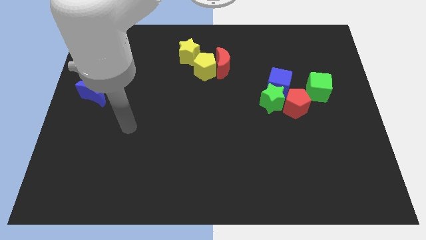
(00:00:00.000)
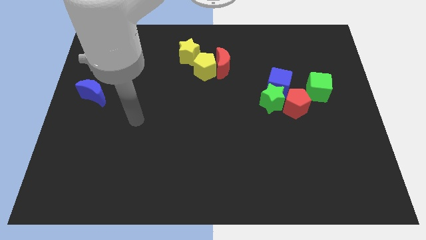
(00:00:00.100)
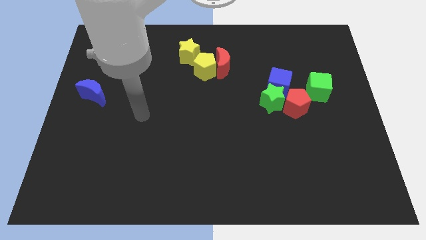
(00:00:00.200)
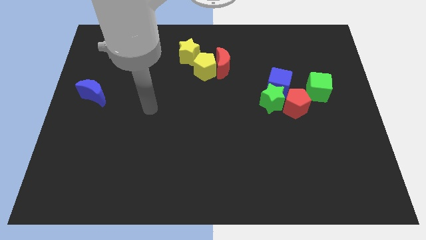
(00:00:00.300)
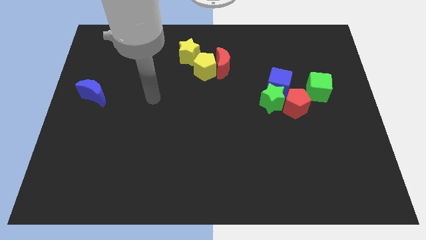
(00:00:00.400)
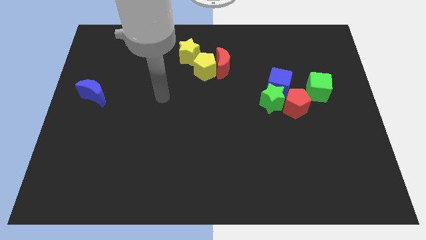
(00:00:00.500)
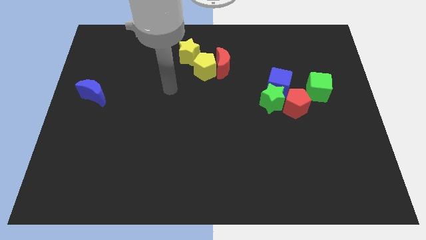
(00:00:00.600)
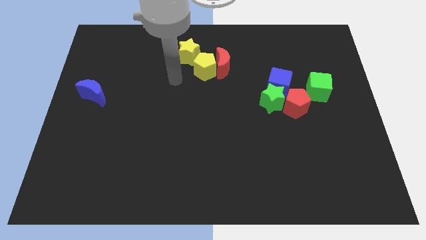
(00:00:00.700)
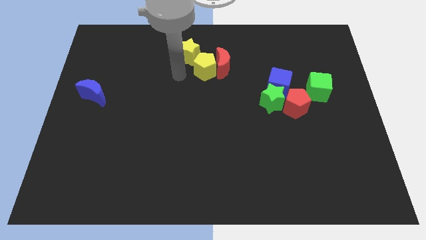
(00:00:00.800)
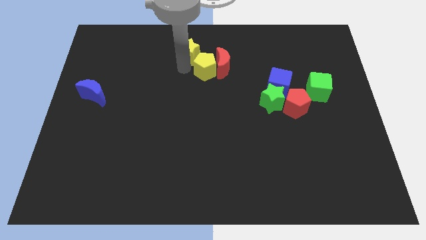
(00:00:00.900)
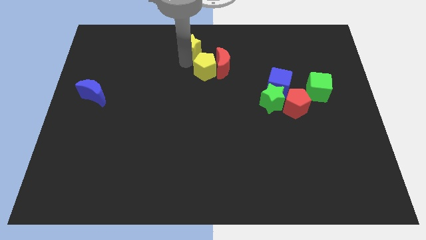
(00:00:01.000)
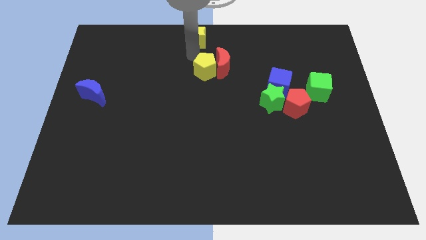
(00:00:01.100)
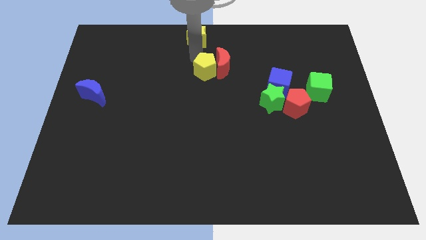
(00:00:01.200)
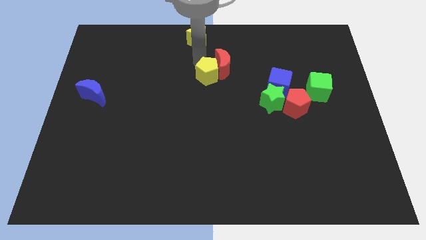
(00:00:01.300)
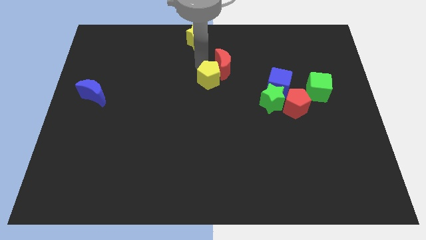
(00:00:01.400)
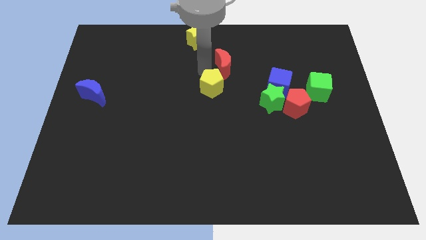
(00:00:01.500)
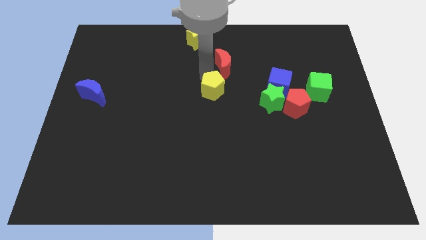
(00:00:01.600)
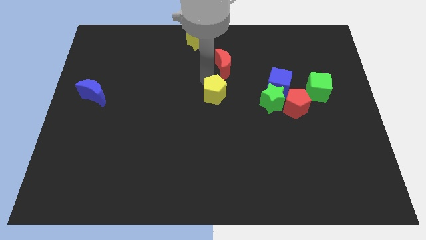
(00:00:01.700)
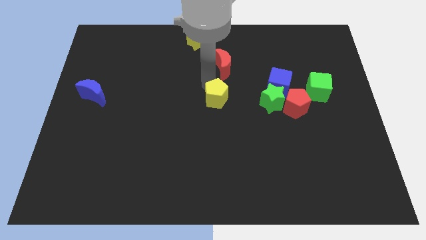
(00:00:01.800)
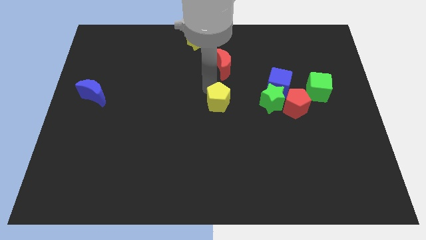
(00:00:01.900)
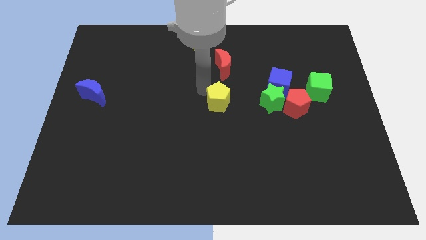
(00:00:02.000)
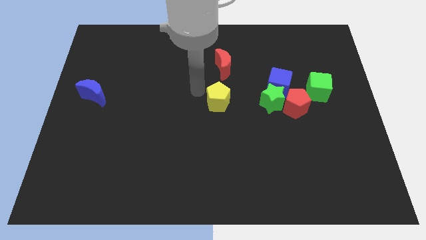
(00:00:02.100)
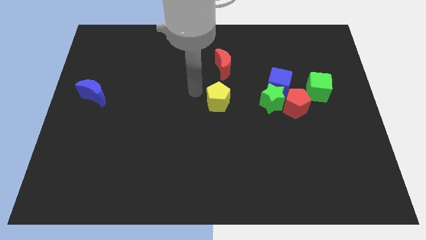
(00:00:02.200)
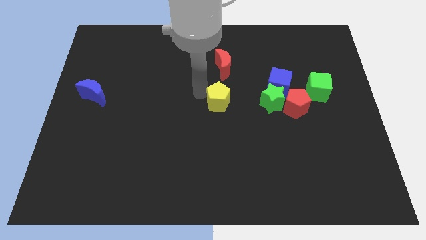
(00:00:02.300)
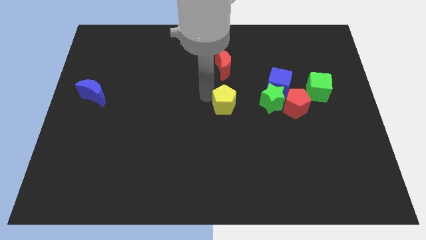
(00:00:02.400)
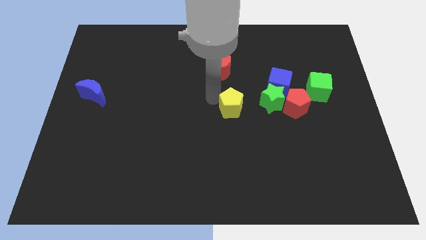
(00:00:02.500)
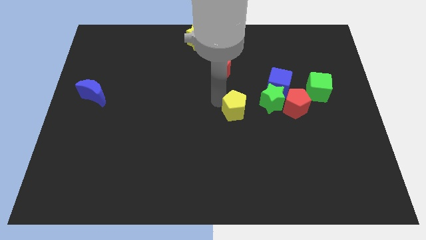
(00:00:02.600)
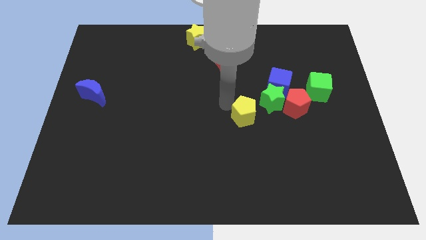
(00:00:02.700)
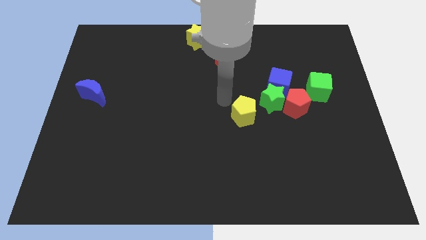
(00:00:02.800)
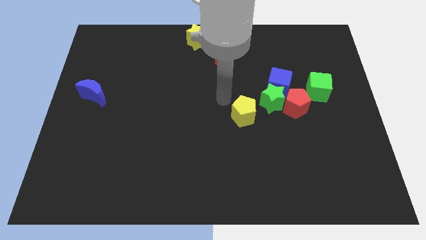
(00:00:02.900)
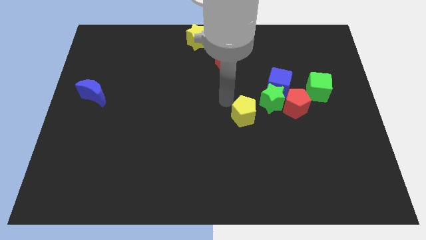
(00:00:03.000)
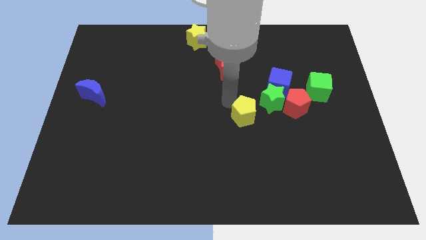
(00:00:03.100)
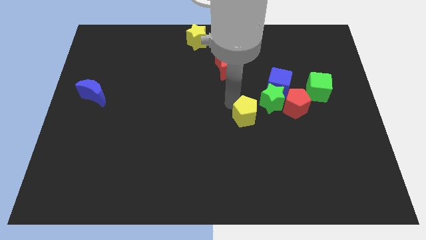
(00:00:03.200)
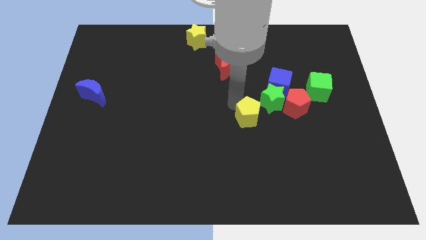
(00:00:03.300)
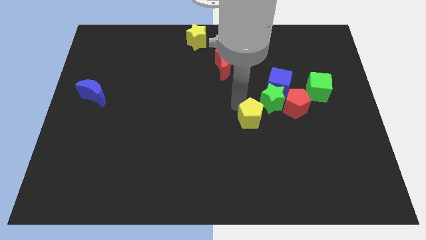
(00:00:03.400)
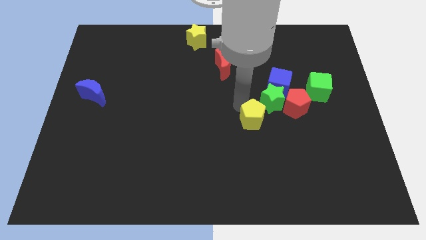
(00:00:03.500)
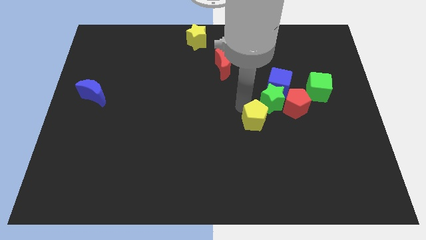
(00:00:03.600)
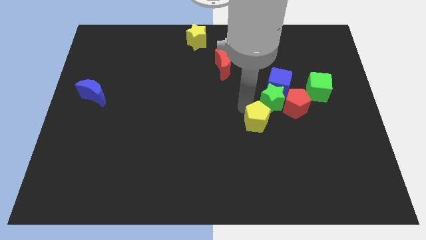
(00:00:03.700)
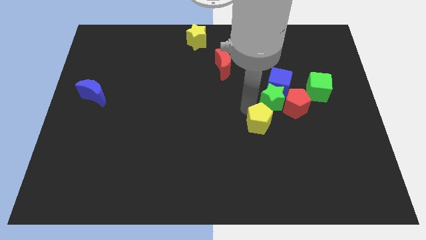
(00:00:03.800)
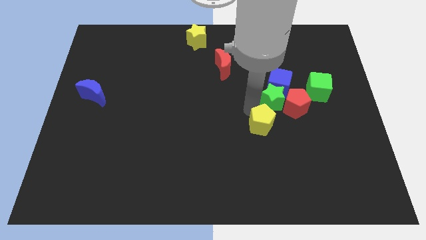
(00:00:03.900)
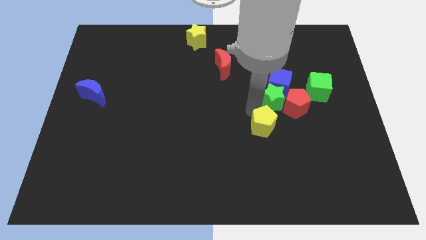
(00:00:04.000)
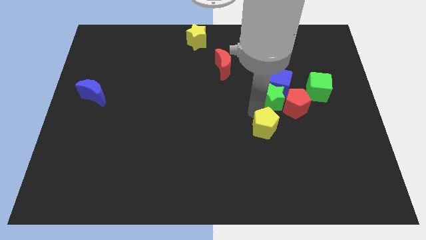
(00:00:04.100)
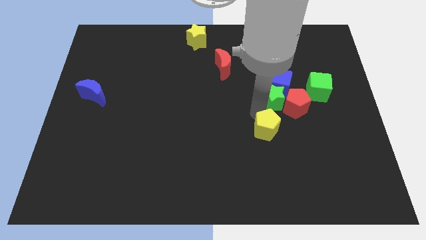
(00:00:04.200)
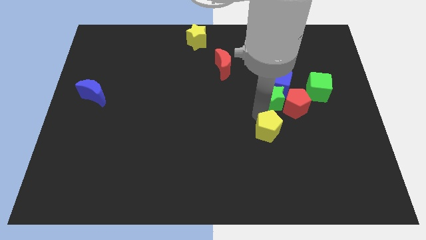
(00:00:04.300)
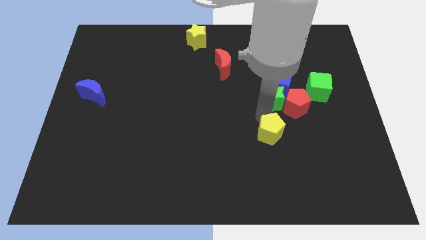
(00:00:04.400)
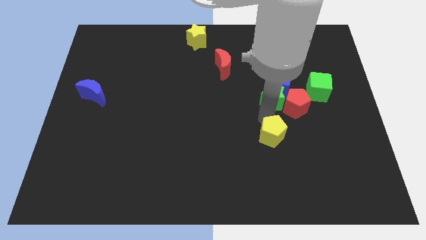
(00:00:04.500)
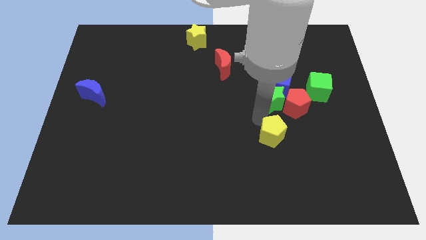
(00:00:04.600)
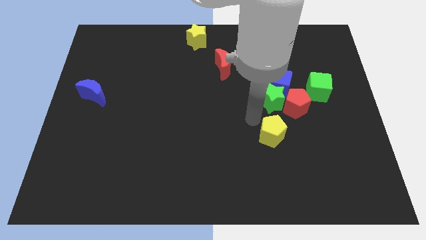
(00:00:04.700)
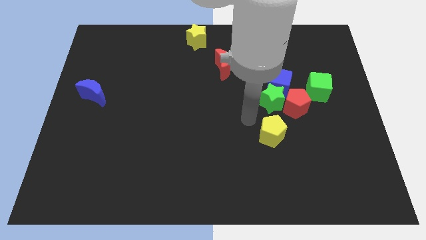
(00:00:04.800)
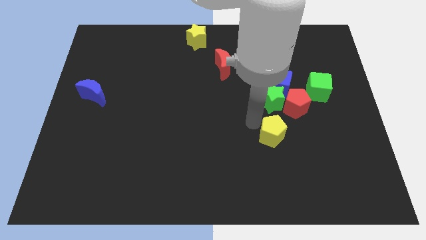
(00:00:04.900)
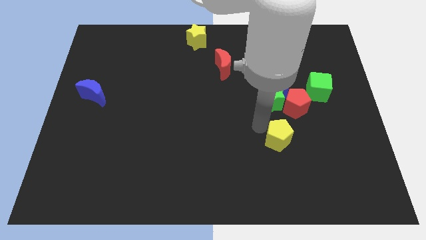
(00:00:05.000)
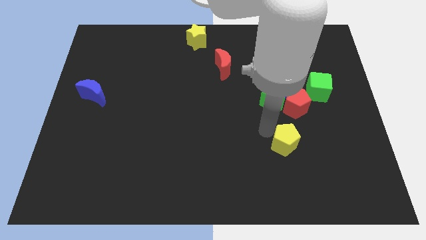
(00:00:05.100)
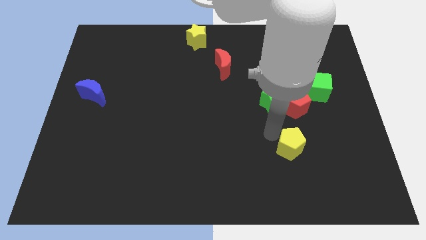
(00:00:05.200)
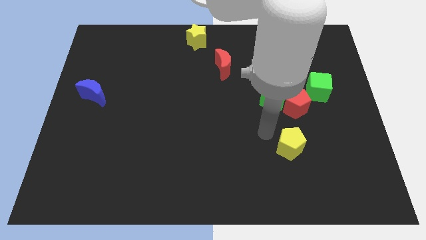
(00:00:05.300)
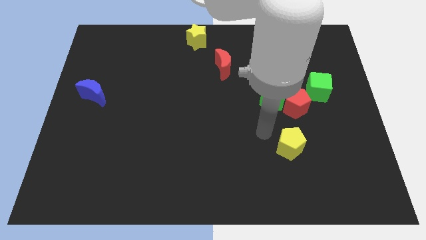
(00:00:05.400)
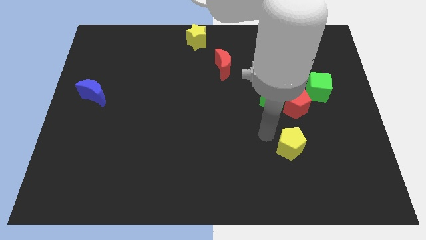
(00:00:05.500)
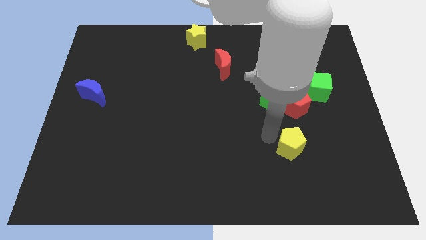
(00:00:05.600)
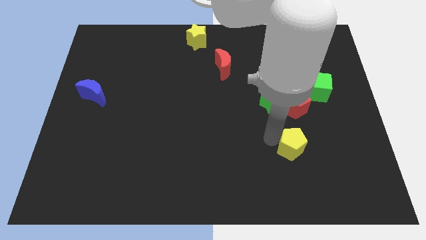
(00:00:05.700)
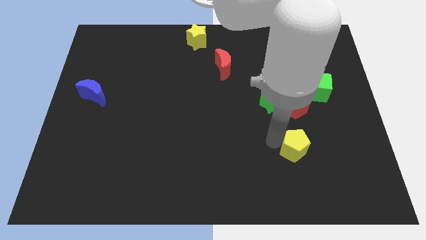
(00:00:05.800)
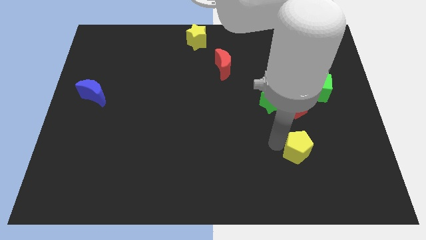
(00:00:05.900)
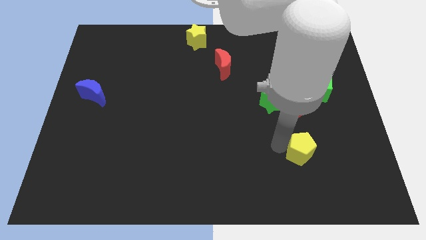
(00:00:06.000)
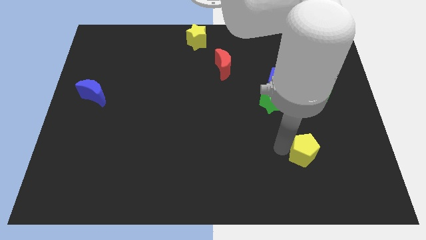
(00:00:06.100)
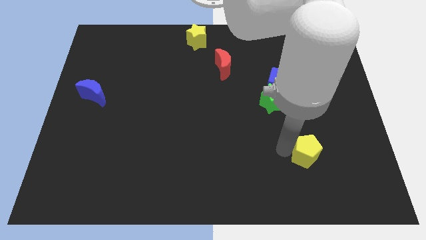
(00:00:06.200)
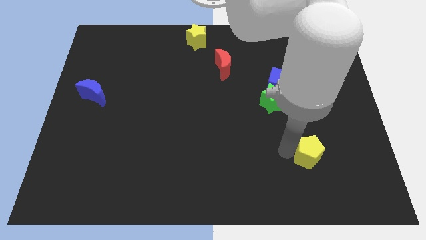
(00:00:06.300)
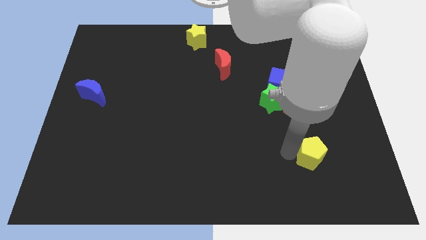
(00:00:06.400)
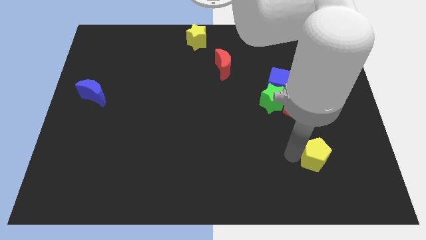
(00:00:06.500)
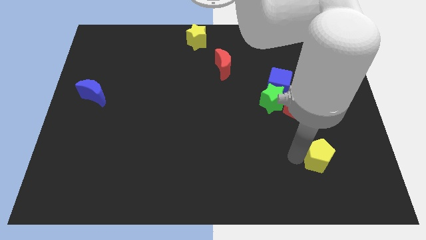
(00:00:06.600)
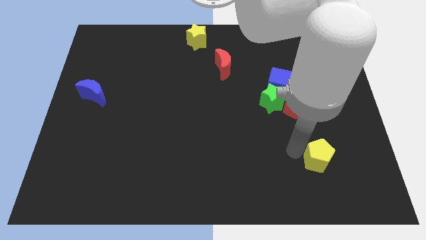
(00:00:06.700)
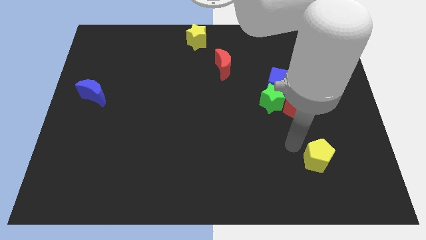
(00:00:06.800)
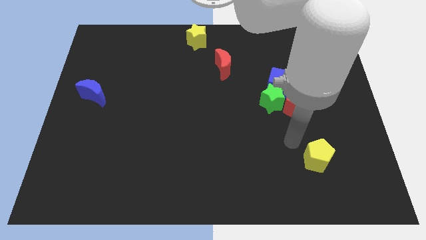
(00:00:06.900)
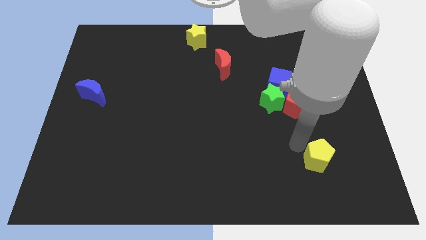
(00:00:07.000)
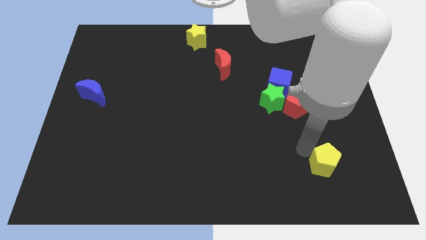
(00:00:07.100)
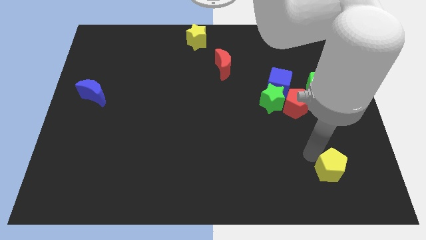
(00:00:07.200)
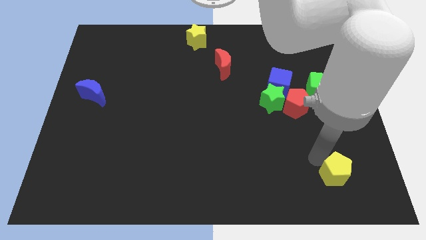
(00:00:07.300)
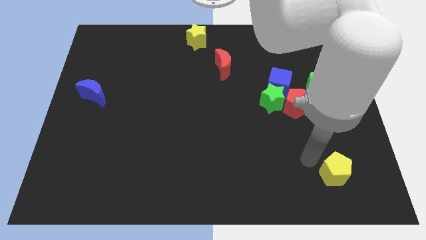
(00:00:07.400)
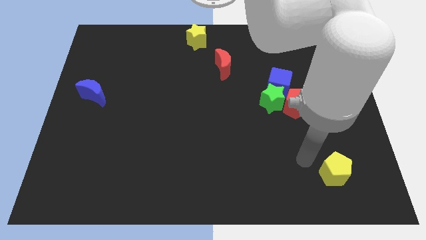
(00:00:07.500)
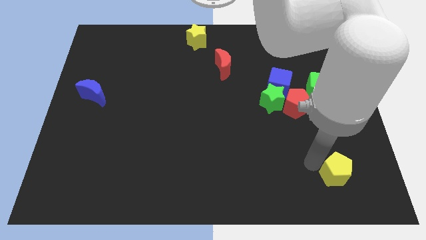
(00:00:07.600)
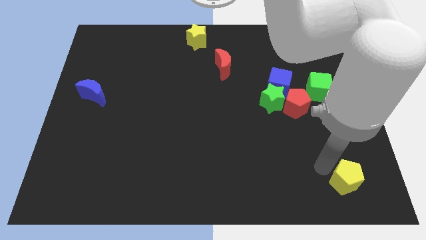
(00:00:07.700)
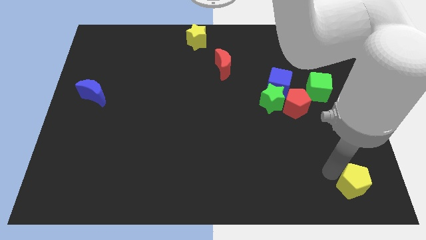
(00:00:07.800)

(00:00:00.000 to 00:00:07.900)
push the yellow pentagon to the bottom right corner
